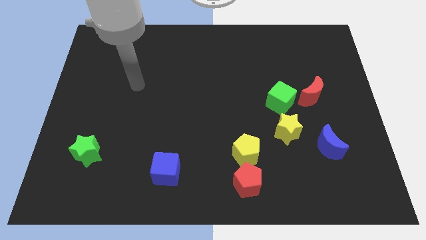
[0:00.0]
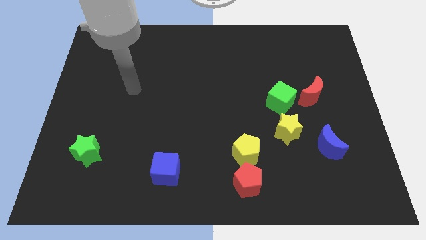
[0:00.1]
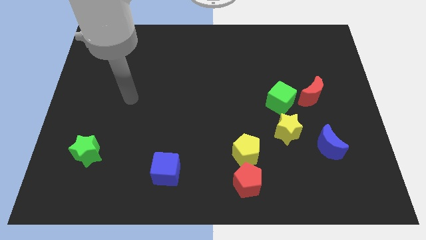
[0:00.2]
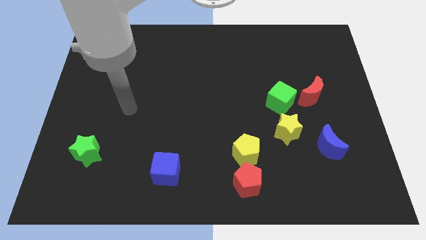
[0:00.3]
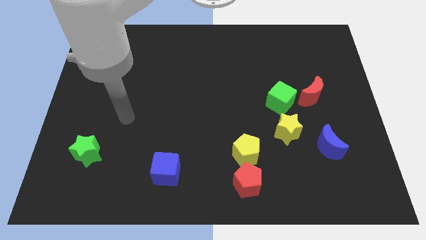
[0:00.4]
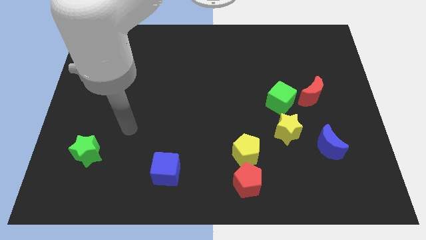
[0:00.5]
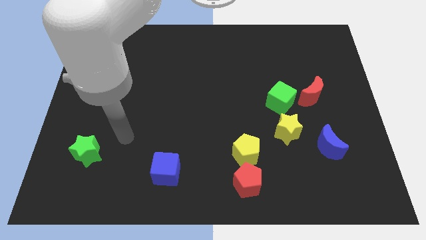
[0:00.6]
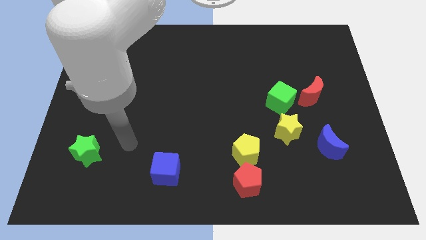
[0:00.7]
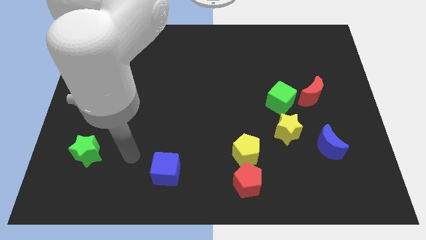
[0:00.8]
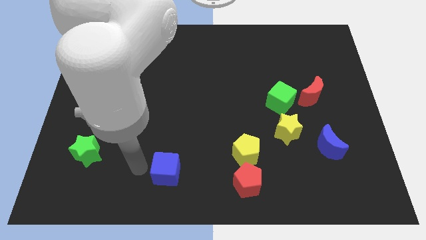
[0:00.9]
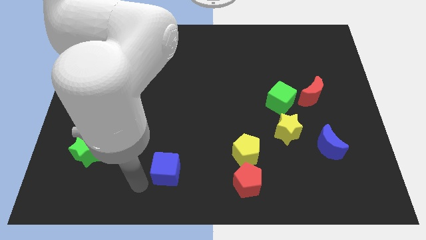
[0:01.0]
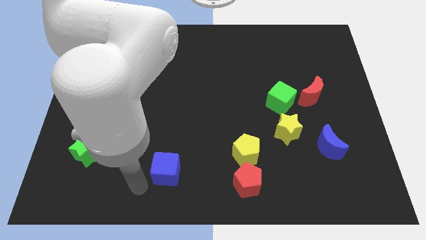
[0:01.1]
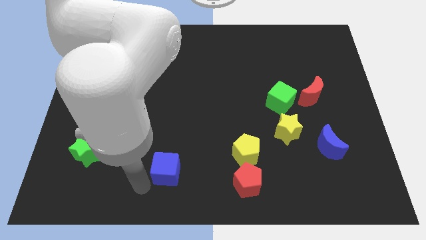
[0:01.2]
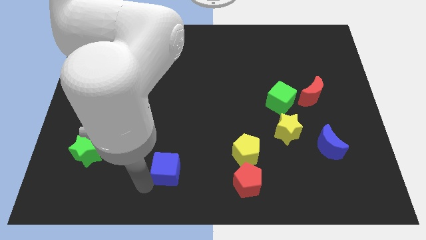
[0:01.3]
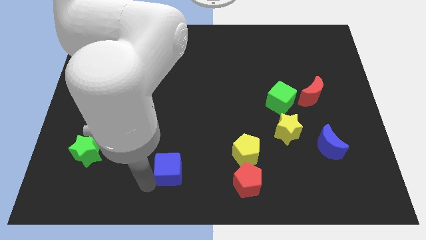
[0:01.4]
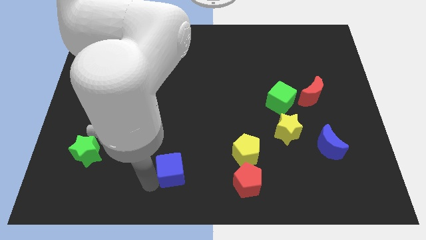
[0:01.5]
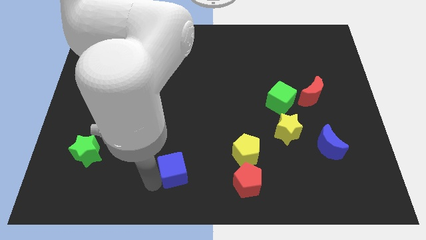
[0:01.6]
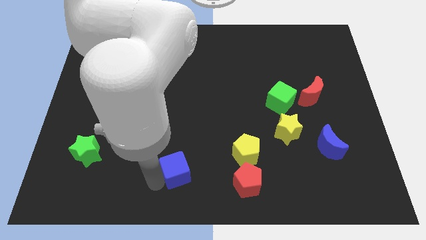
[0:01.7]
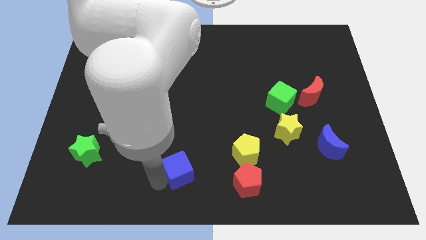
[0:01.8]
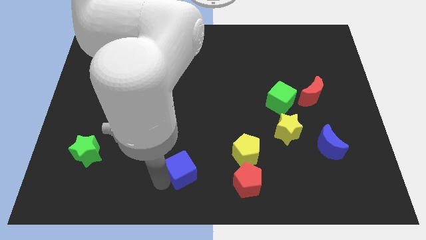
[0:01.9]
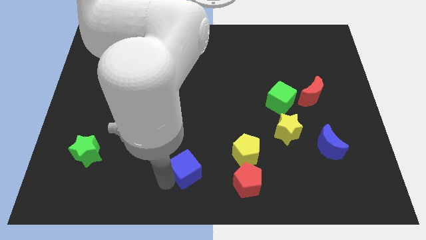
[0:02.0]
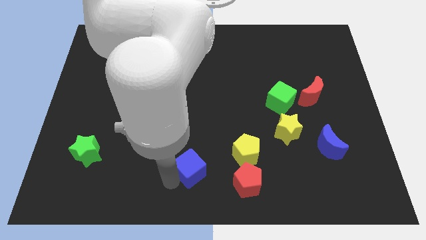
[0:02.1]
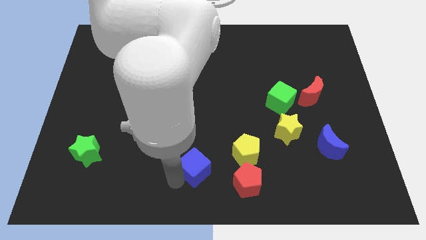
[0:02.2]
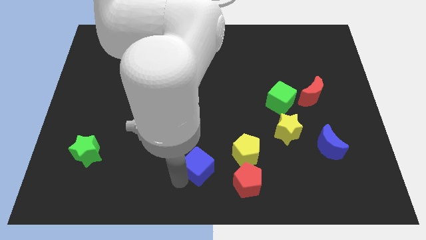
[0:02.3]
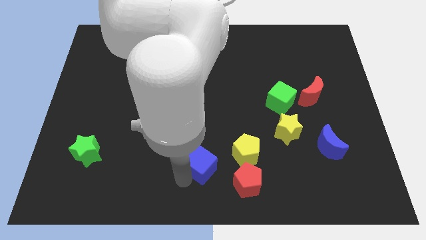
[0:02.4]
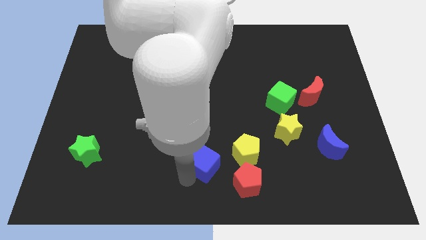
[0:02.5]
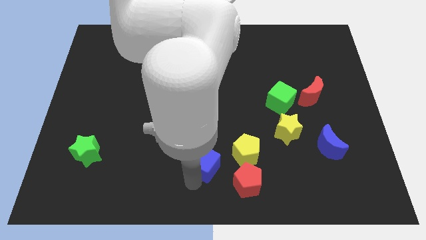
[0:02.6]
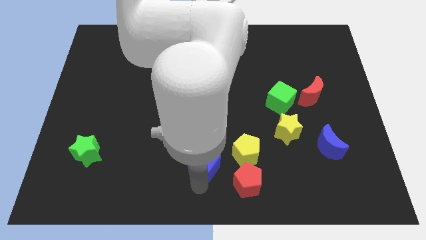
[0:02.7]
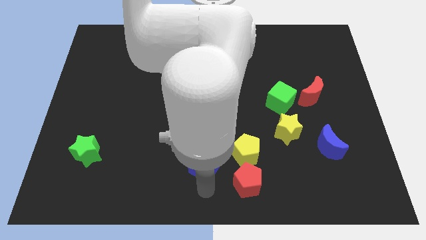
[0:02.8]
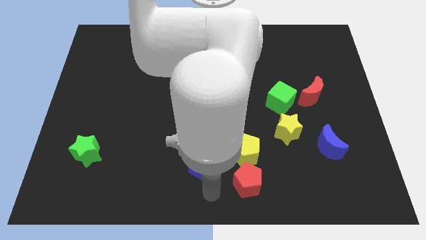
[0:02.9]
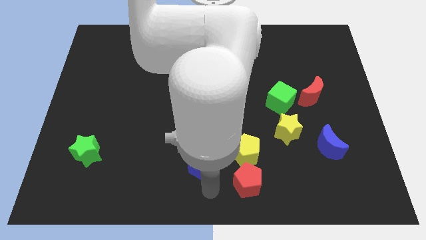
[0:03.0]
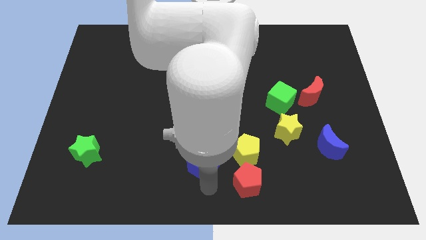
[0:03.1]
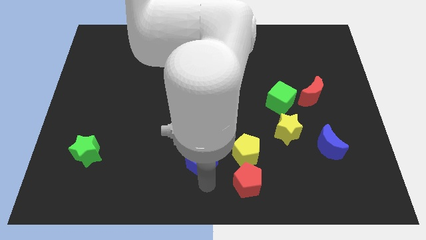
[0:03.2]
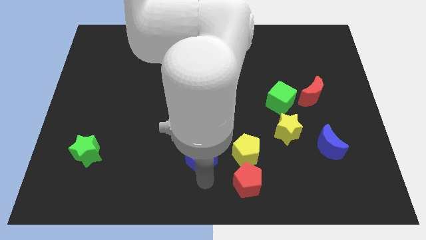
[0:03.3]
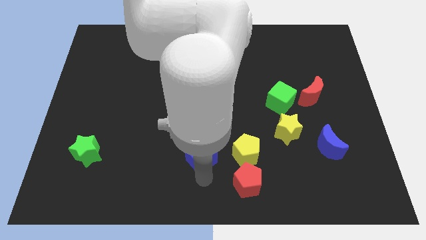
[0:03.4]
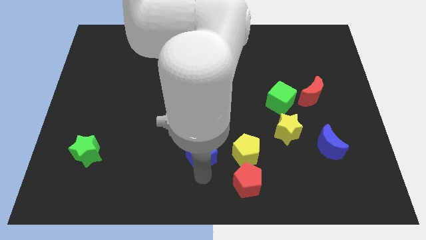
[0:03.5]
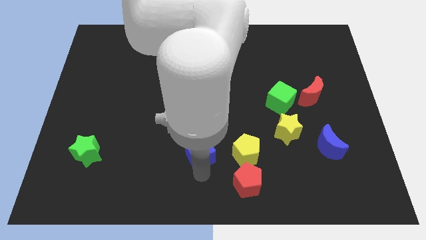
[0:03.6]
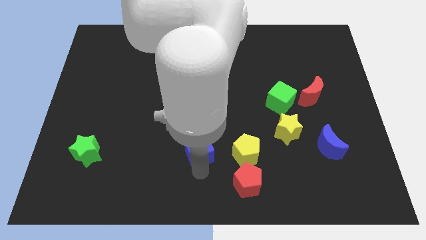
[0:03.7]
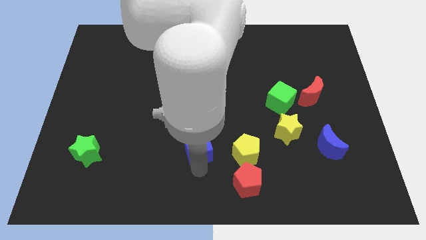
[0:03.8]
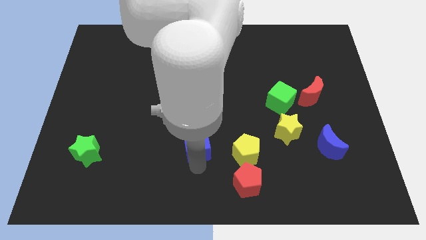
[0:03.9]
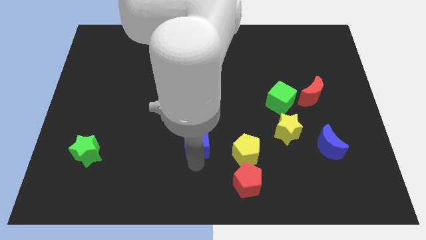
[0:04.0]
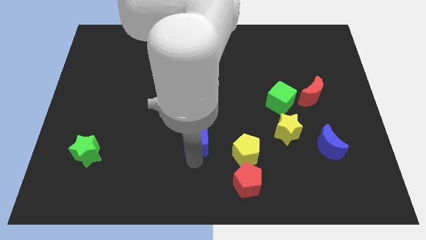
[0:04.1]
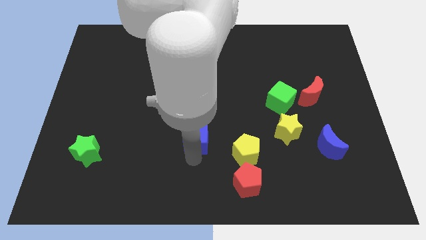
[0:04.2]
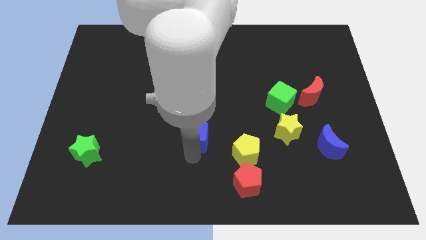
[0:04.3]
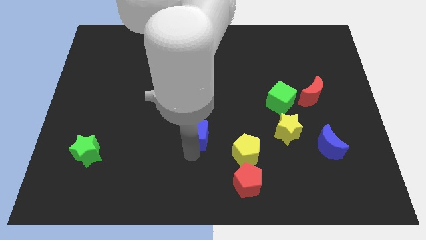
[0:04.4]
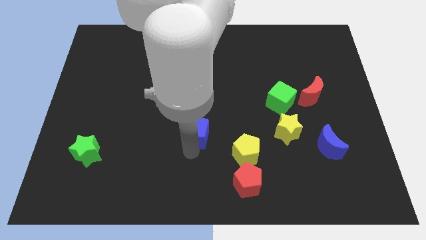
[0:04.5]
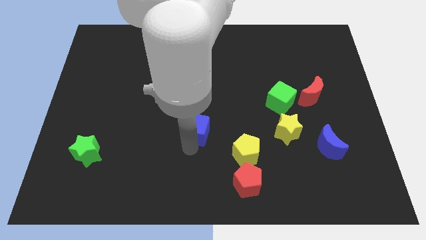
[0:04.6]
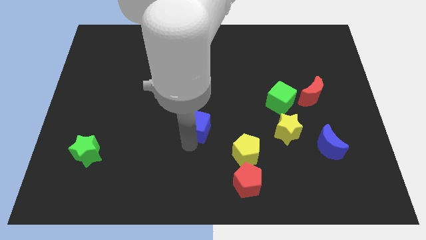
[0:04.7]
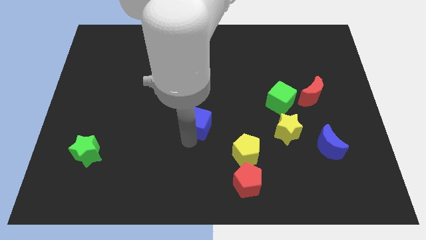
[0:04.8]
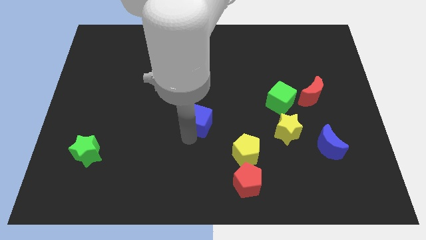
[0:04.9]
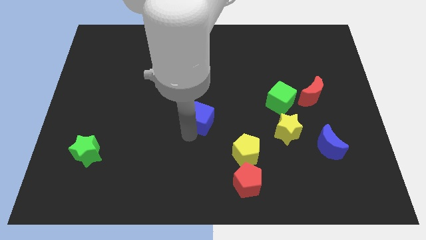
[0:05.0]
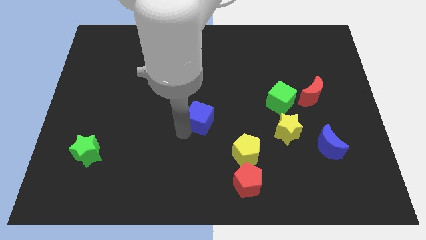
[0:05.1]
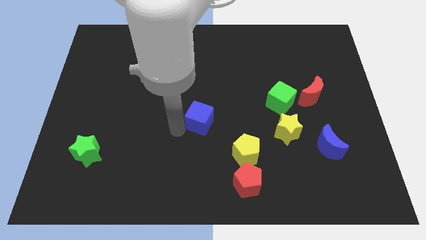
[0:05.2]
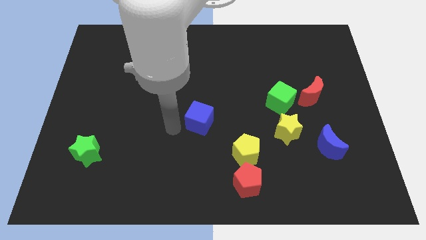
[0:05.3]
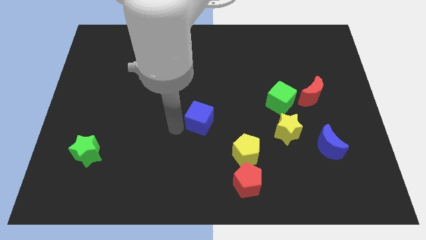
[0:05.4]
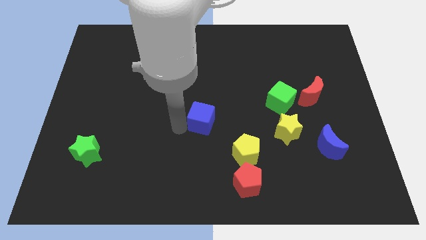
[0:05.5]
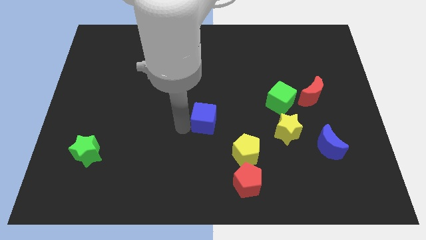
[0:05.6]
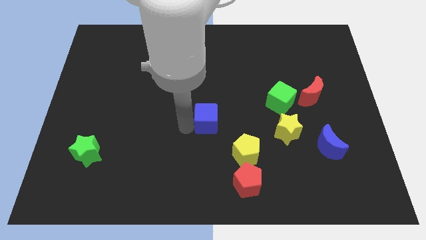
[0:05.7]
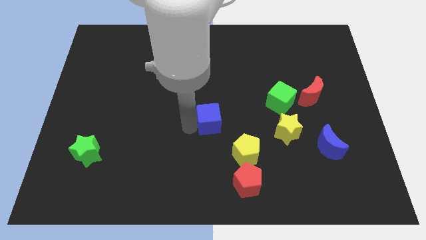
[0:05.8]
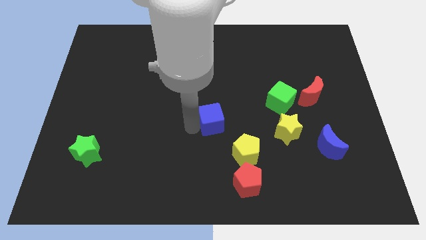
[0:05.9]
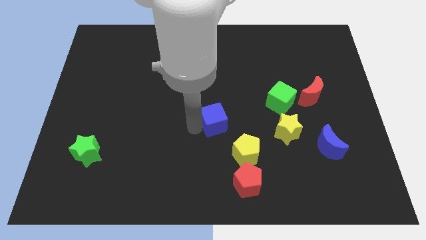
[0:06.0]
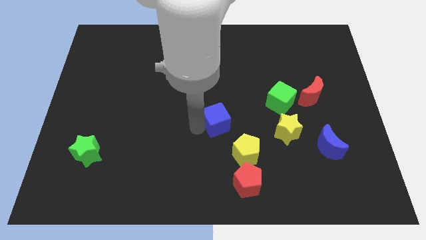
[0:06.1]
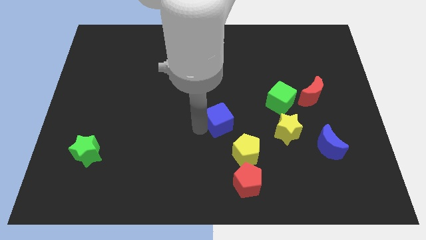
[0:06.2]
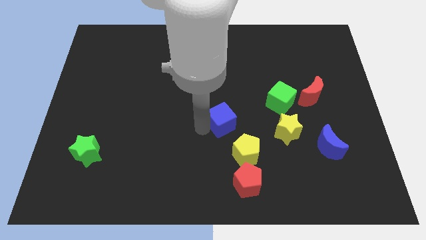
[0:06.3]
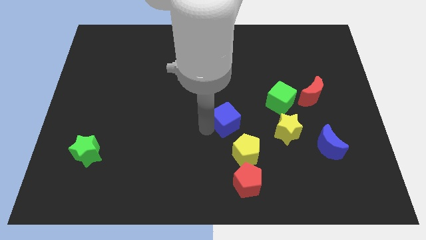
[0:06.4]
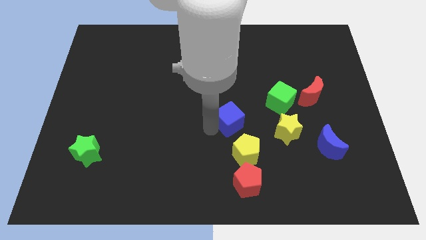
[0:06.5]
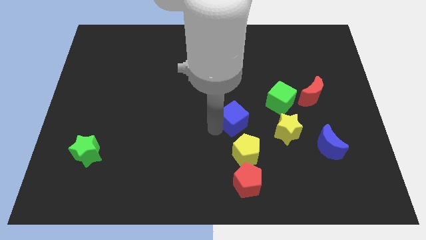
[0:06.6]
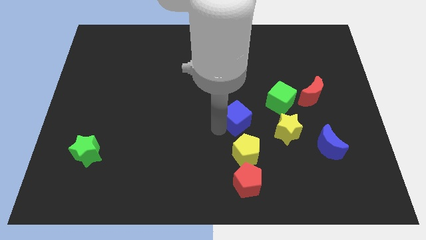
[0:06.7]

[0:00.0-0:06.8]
move the blue cube upwards and then to the right

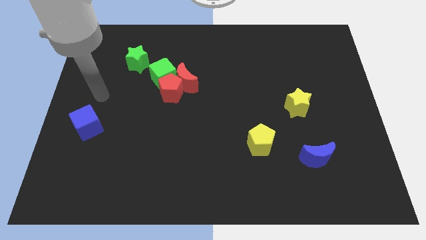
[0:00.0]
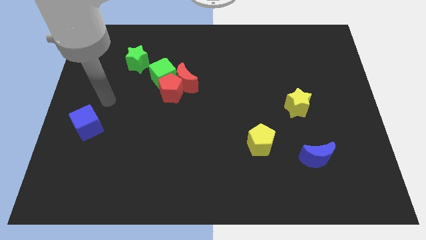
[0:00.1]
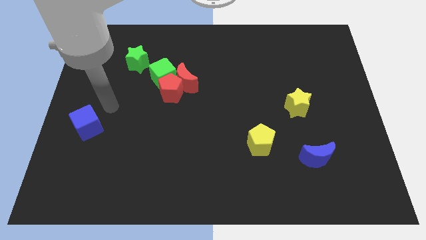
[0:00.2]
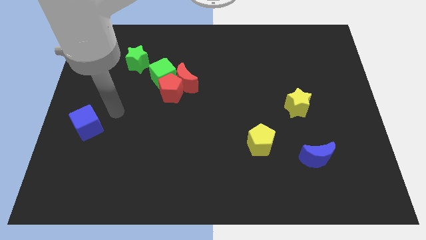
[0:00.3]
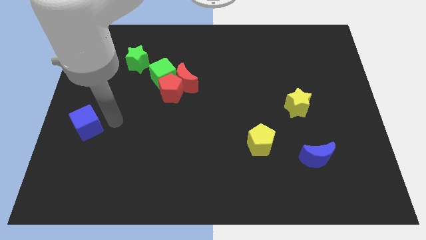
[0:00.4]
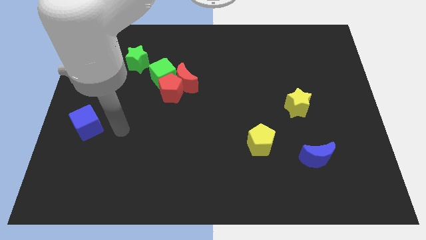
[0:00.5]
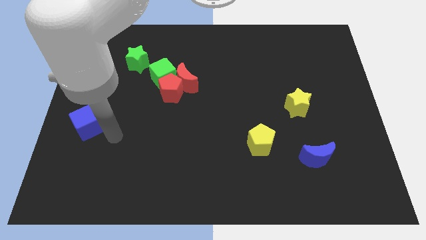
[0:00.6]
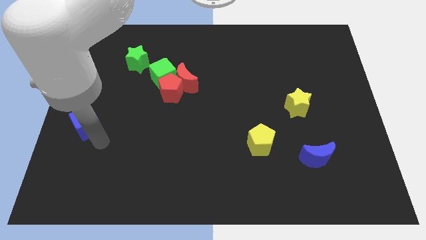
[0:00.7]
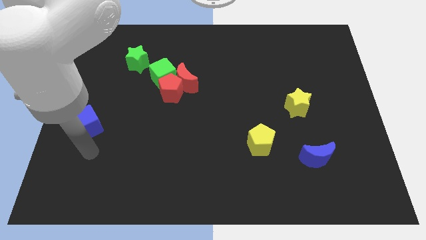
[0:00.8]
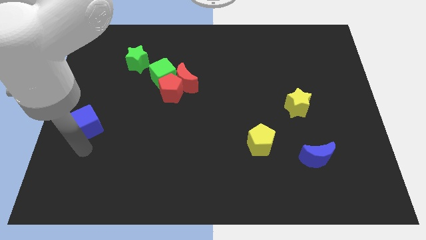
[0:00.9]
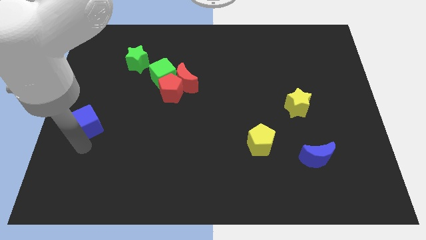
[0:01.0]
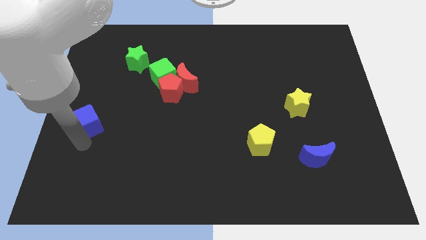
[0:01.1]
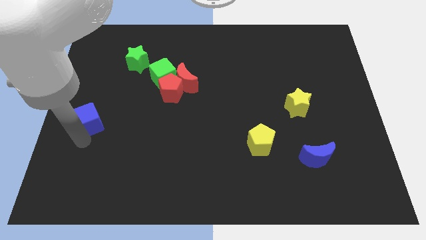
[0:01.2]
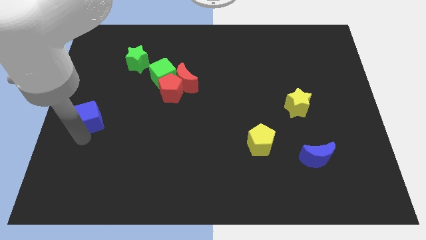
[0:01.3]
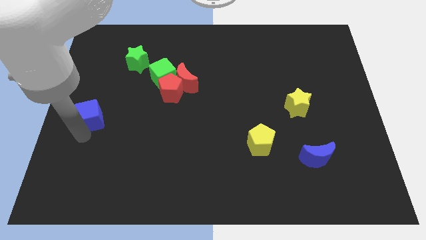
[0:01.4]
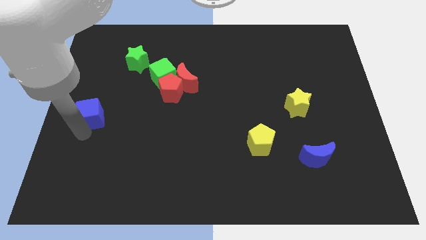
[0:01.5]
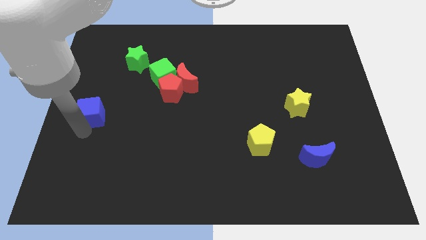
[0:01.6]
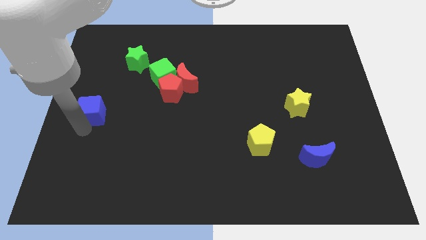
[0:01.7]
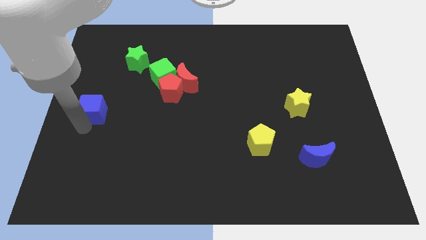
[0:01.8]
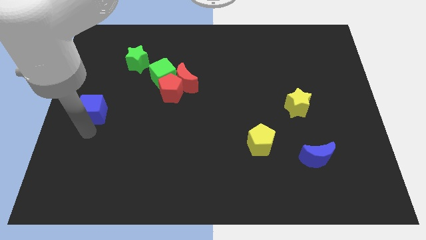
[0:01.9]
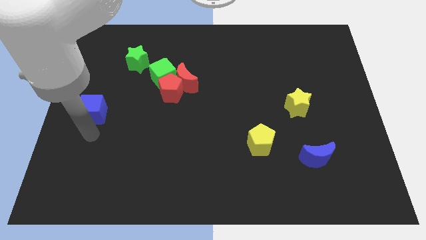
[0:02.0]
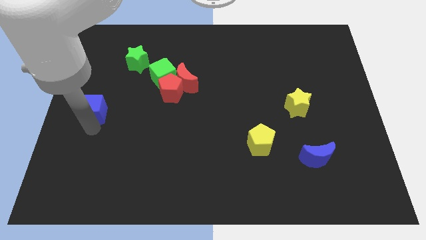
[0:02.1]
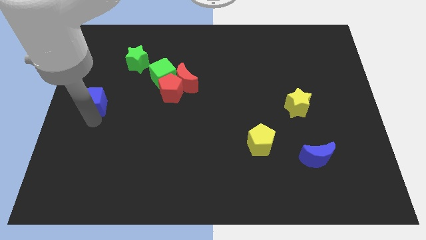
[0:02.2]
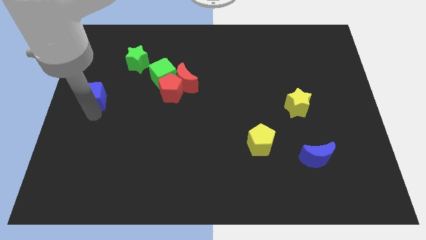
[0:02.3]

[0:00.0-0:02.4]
move the blue cube a little bit upwards
